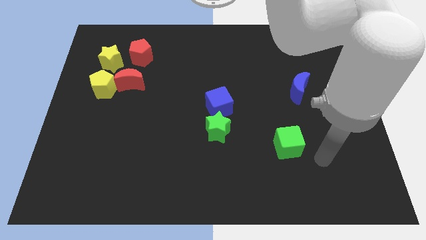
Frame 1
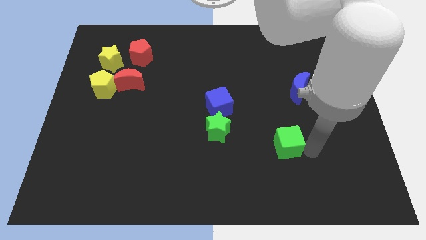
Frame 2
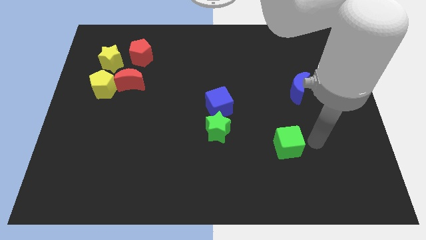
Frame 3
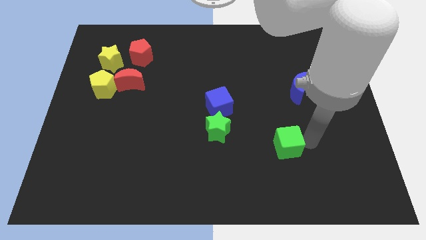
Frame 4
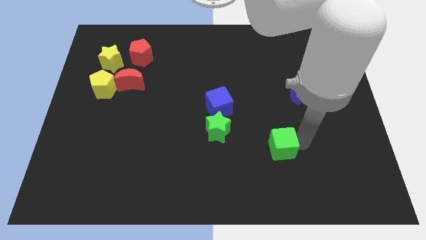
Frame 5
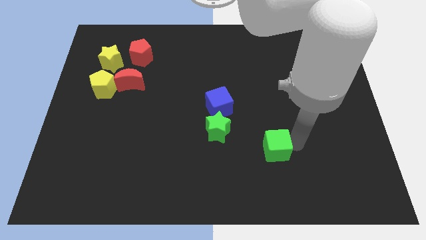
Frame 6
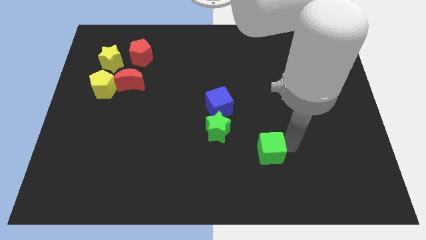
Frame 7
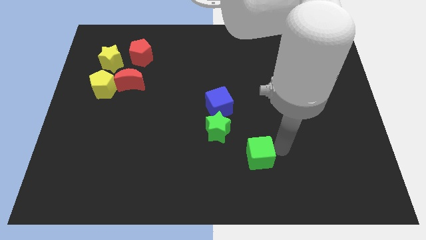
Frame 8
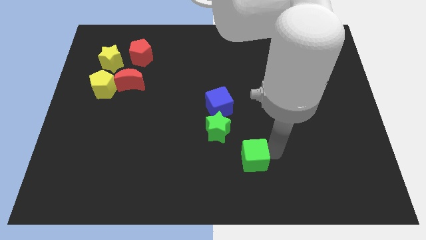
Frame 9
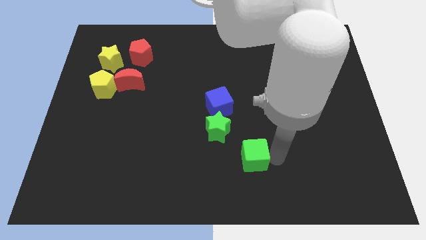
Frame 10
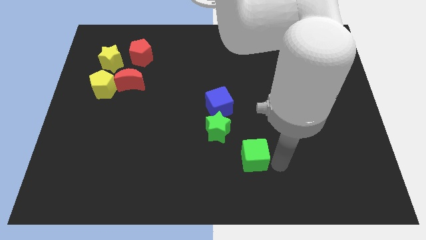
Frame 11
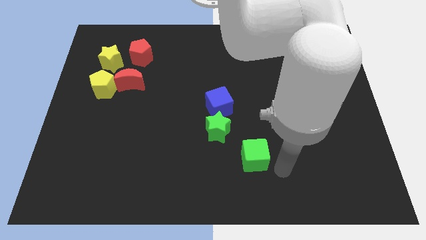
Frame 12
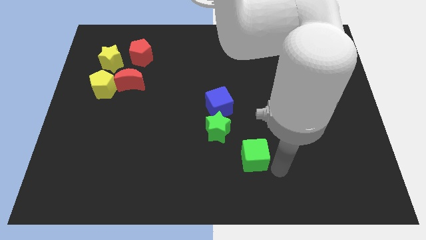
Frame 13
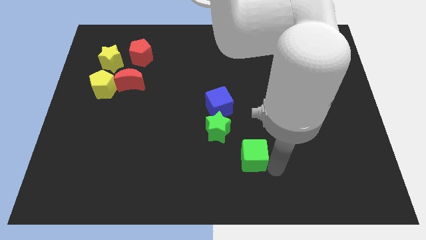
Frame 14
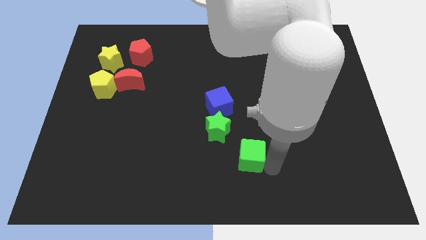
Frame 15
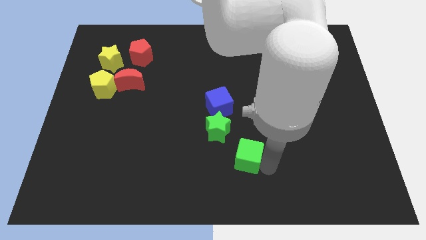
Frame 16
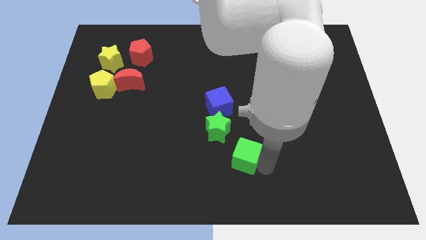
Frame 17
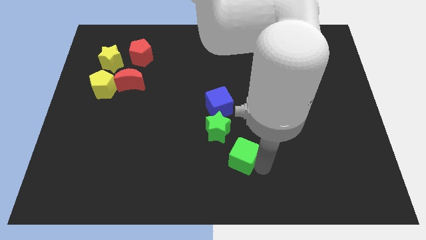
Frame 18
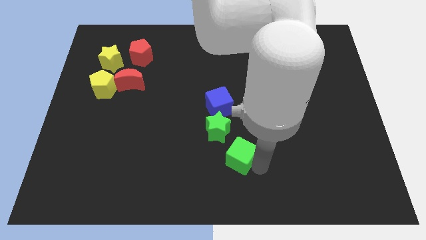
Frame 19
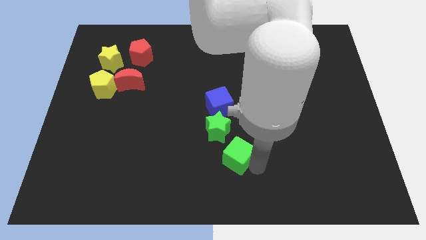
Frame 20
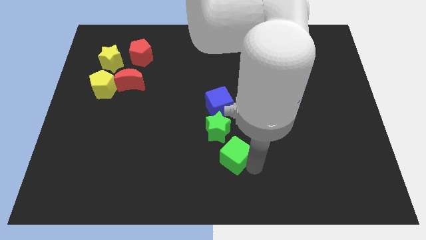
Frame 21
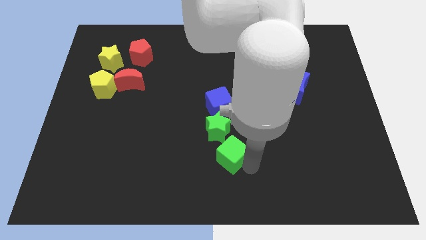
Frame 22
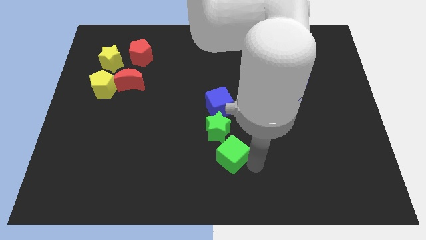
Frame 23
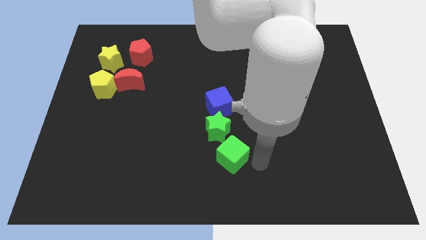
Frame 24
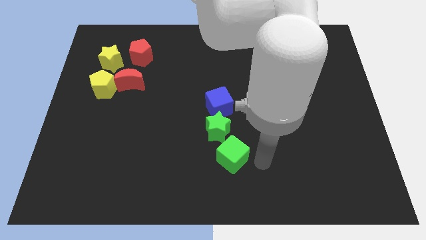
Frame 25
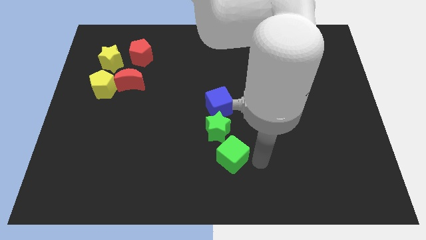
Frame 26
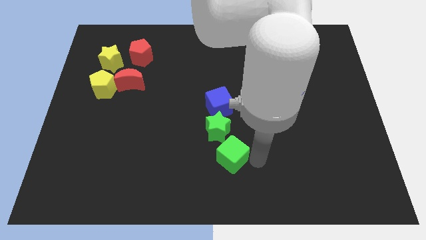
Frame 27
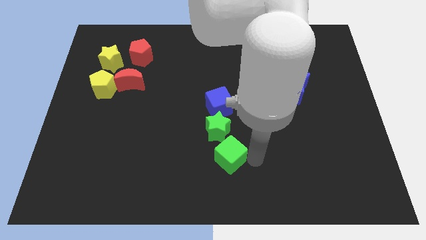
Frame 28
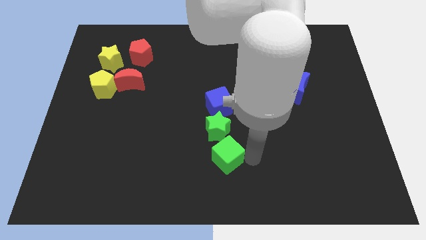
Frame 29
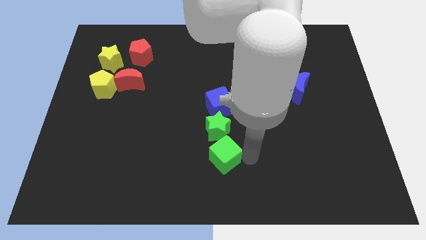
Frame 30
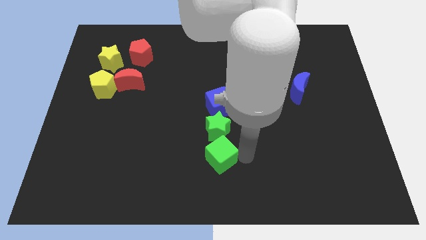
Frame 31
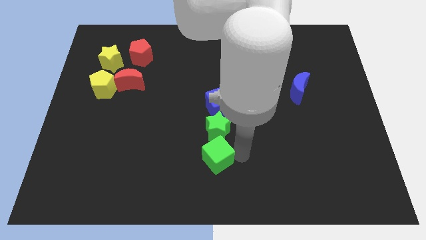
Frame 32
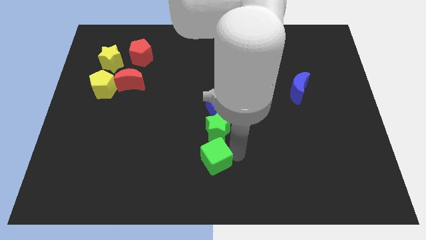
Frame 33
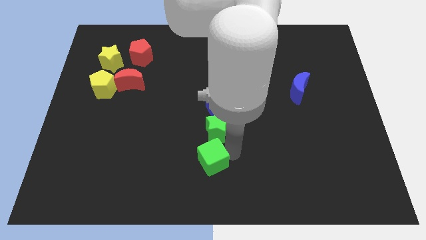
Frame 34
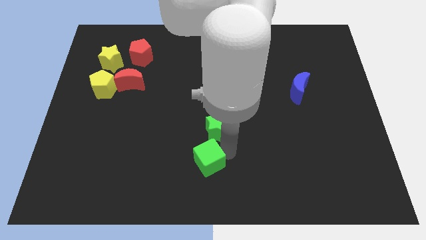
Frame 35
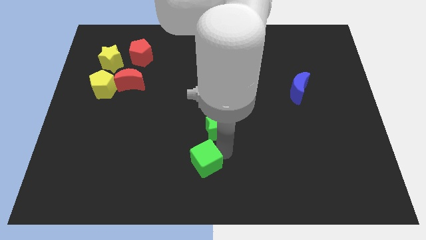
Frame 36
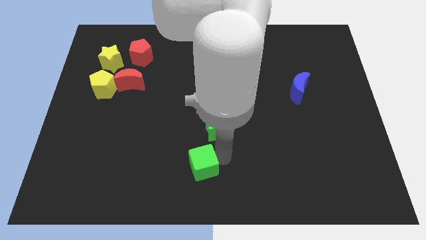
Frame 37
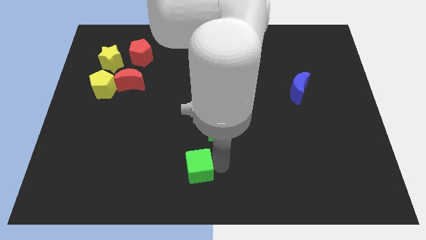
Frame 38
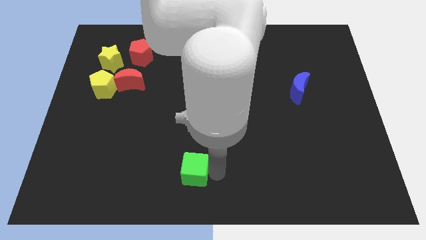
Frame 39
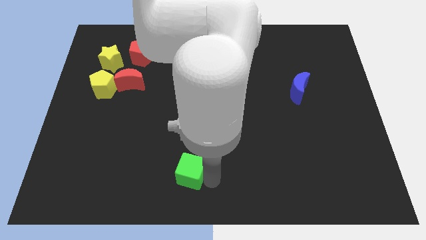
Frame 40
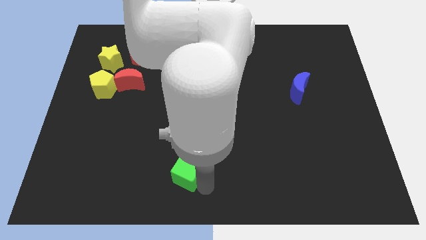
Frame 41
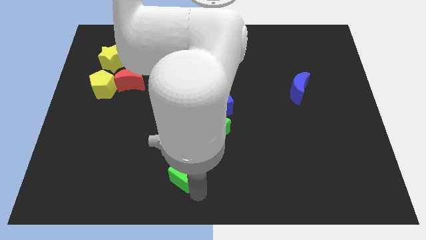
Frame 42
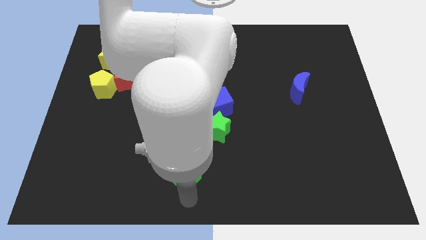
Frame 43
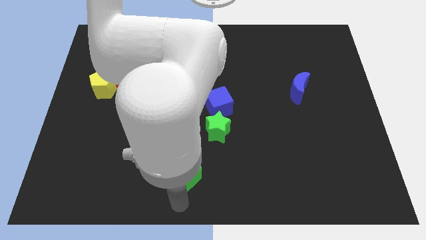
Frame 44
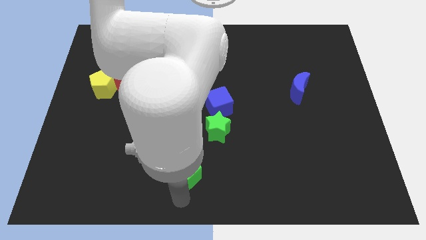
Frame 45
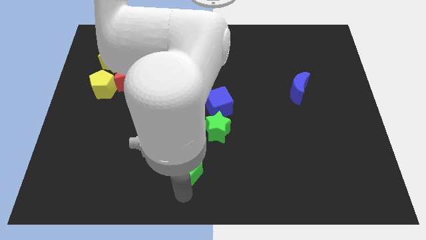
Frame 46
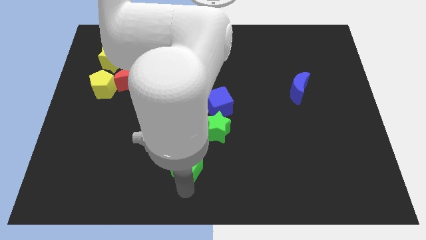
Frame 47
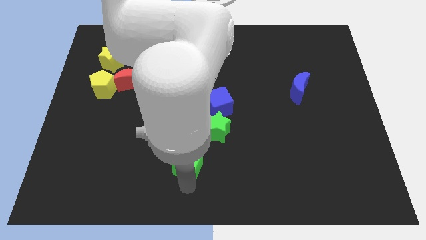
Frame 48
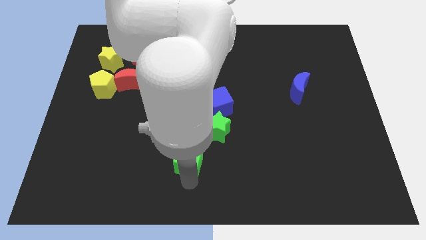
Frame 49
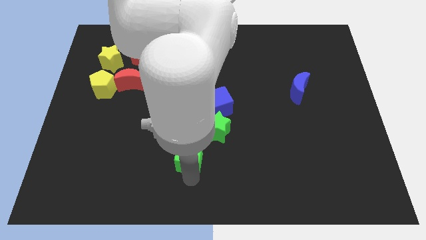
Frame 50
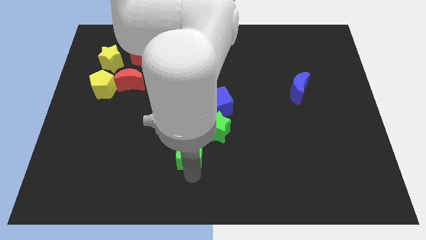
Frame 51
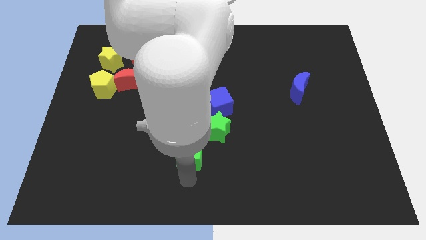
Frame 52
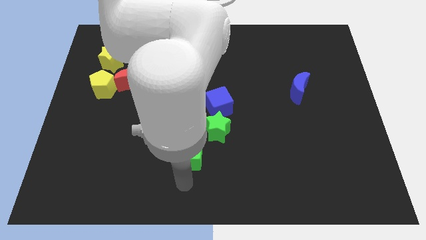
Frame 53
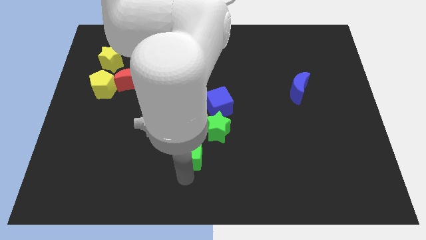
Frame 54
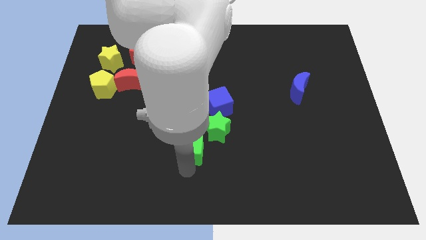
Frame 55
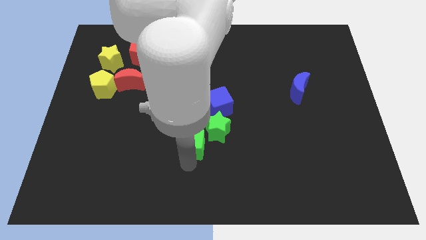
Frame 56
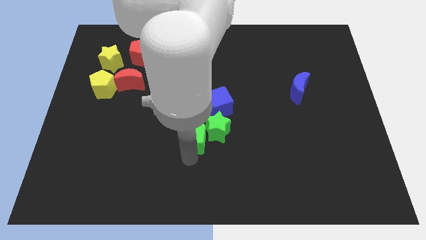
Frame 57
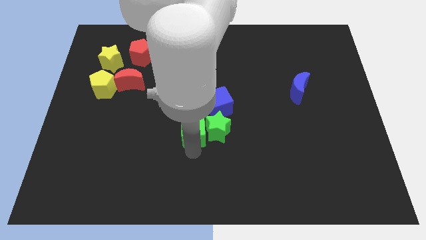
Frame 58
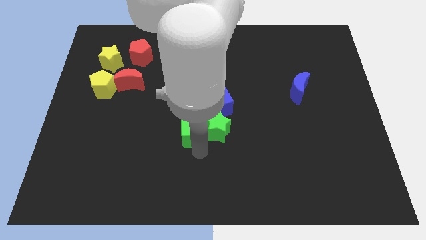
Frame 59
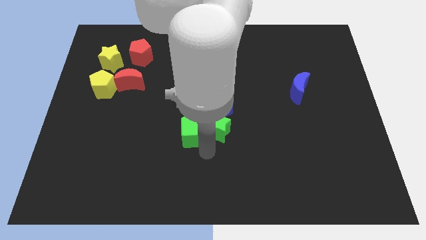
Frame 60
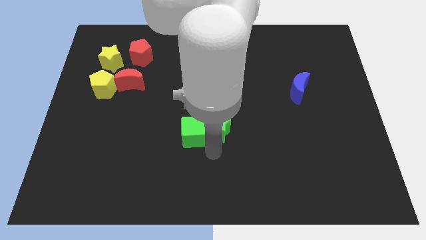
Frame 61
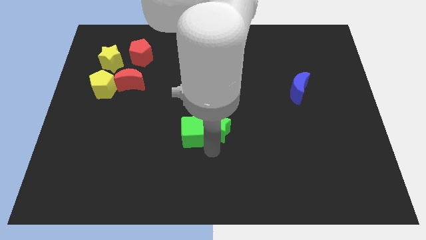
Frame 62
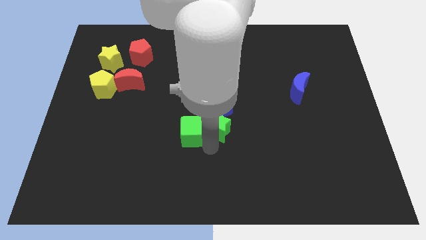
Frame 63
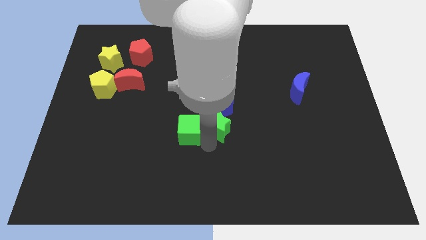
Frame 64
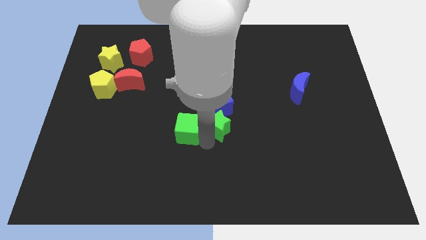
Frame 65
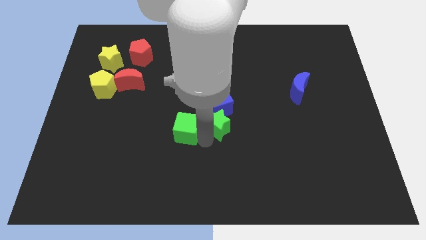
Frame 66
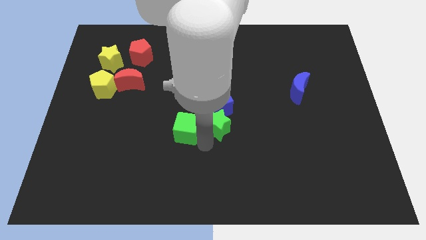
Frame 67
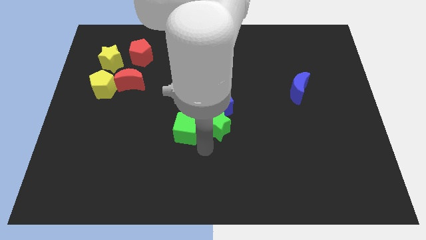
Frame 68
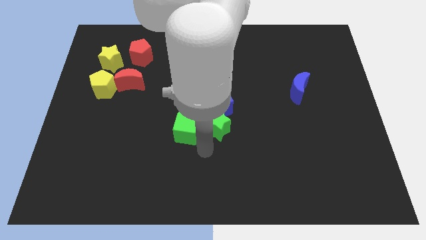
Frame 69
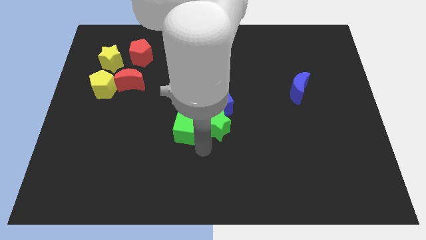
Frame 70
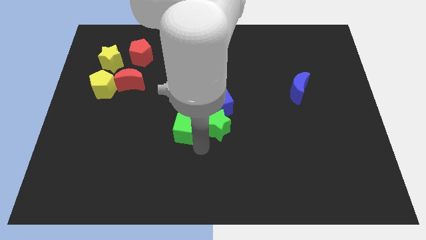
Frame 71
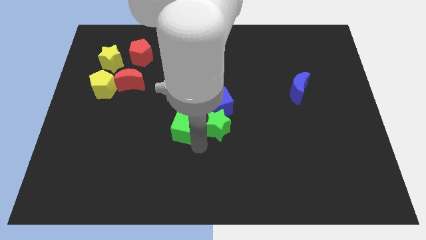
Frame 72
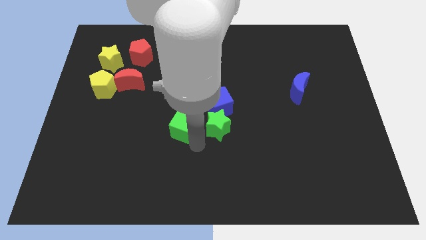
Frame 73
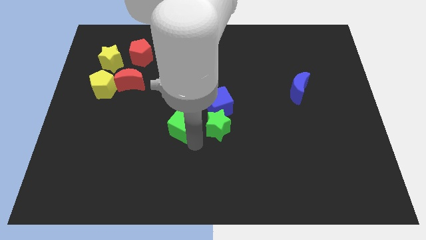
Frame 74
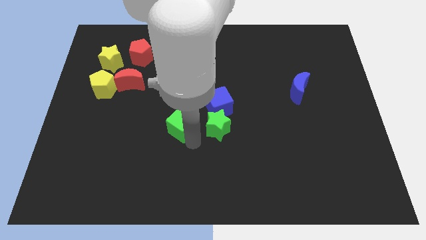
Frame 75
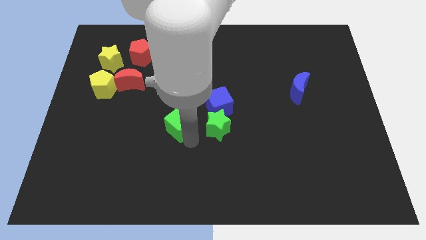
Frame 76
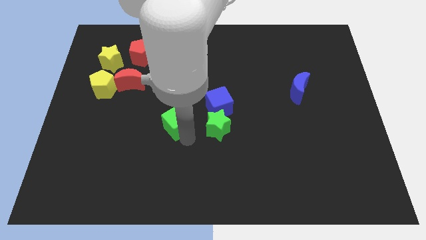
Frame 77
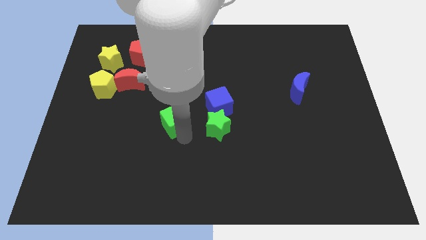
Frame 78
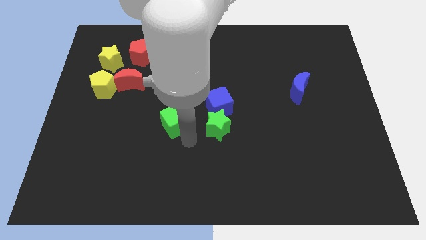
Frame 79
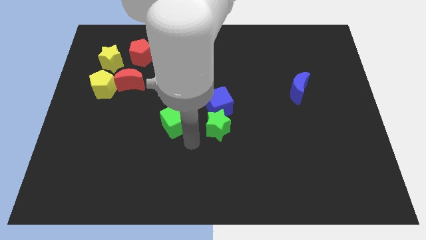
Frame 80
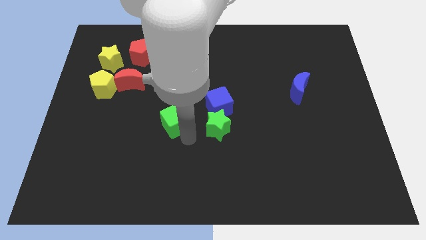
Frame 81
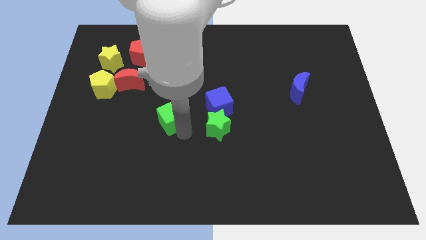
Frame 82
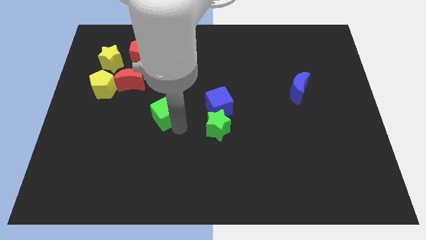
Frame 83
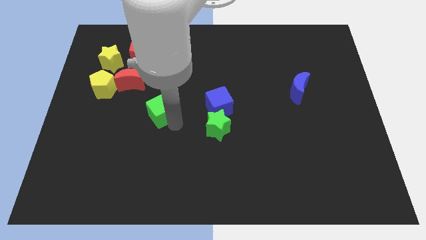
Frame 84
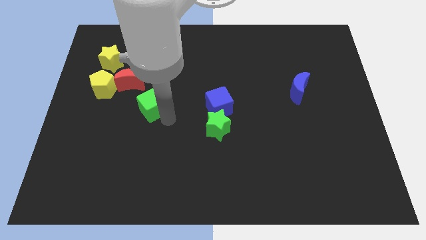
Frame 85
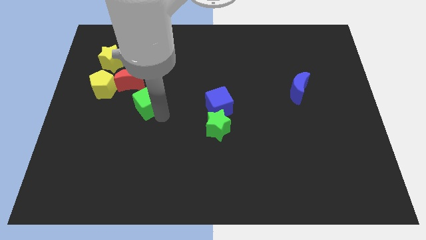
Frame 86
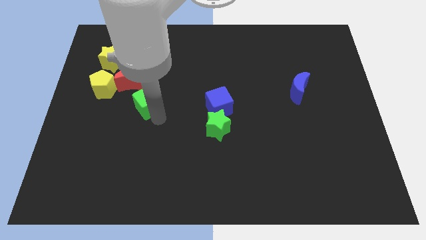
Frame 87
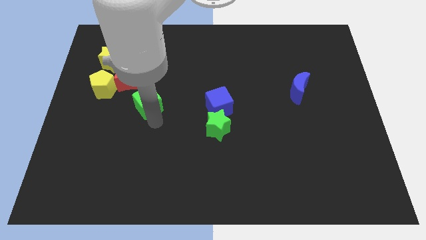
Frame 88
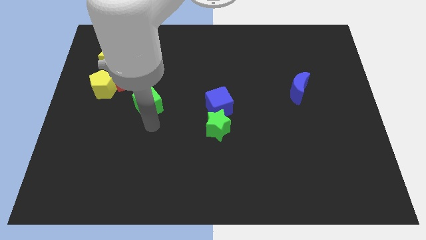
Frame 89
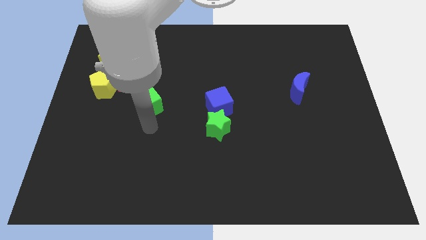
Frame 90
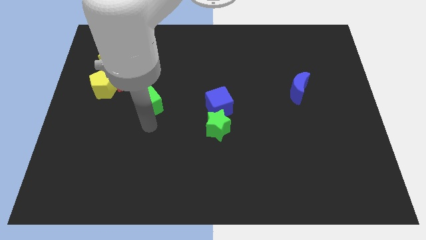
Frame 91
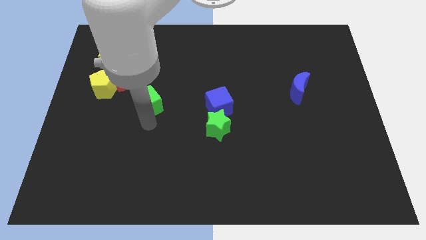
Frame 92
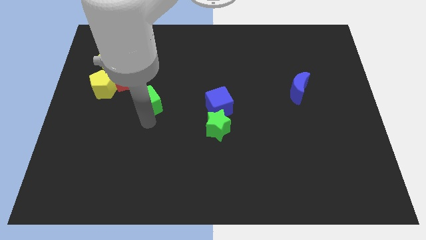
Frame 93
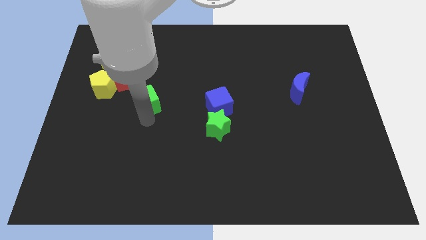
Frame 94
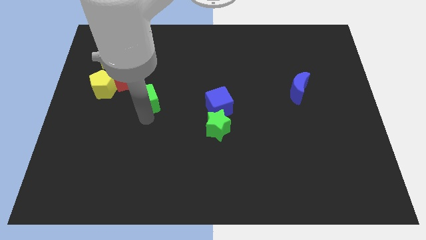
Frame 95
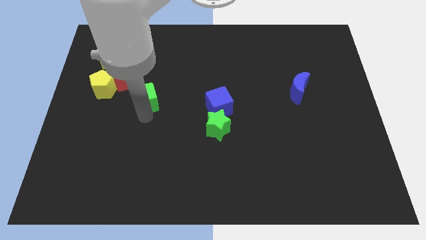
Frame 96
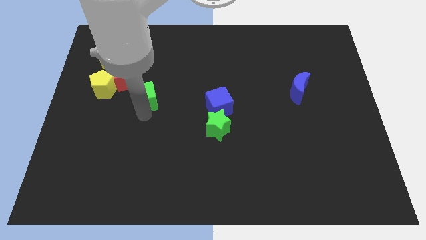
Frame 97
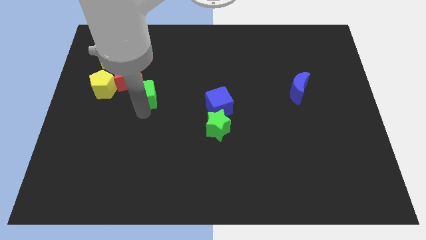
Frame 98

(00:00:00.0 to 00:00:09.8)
move the green cube close to the red moon
